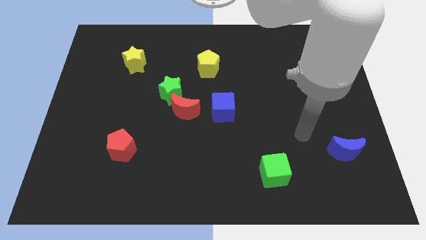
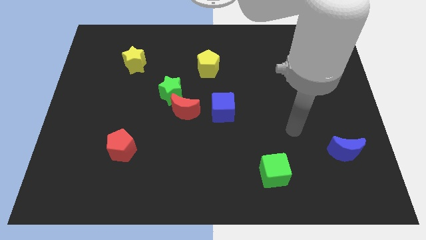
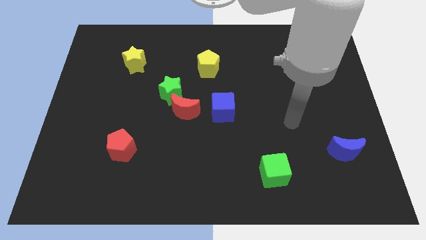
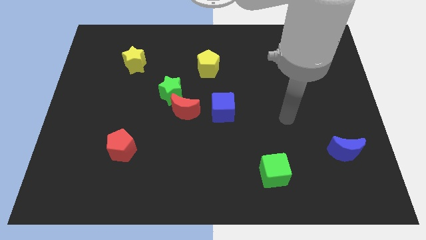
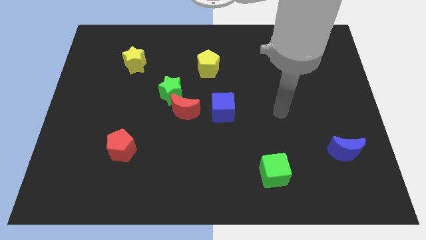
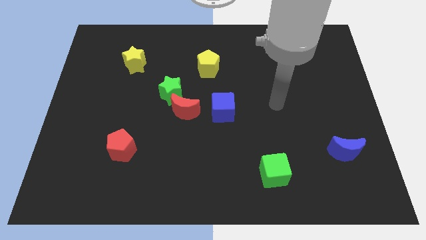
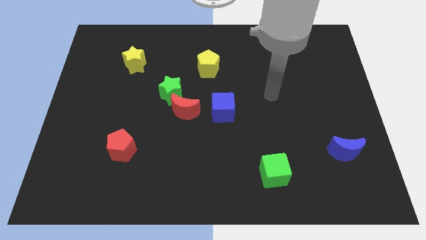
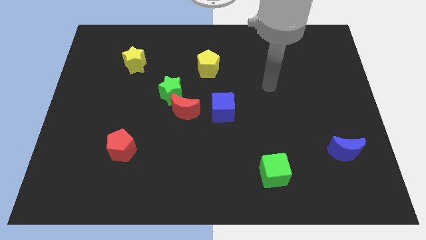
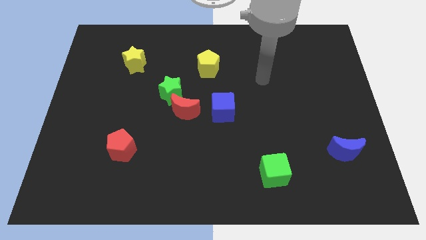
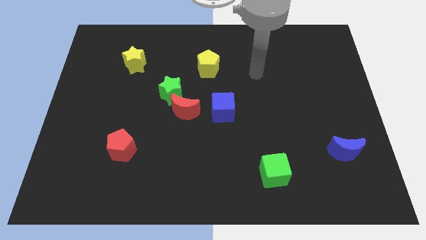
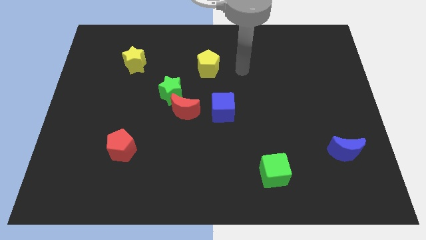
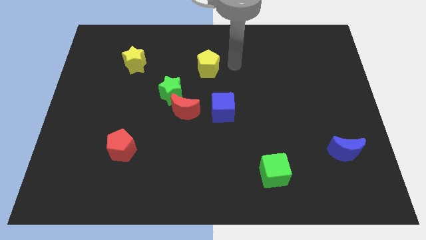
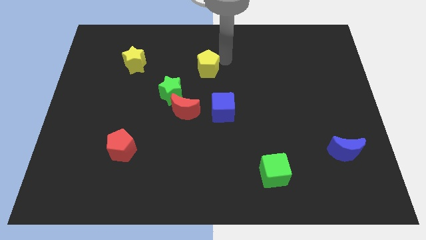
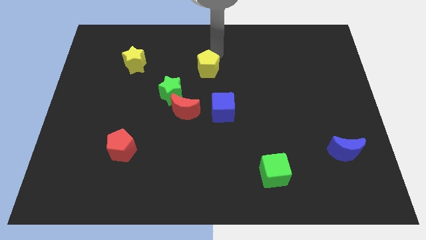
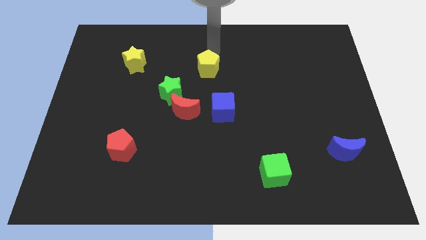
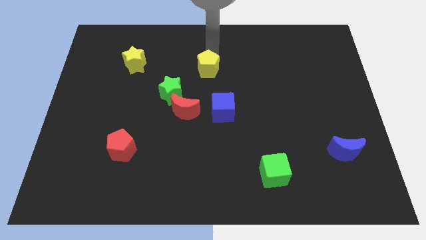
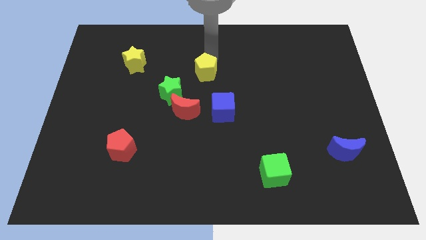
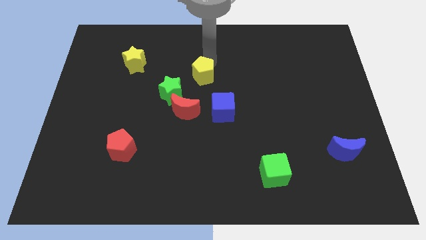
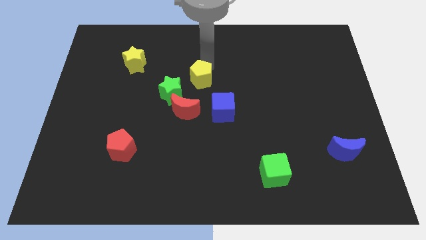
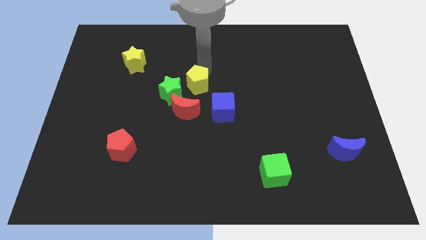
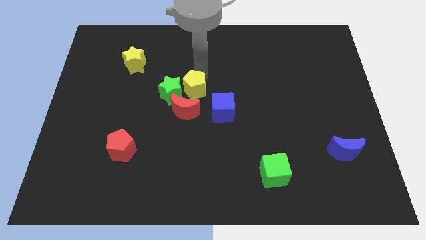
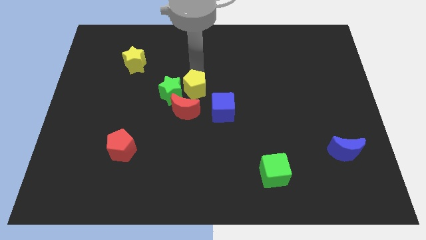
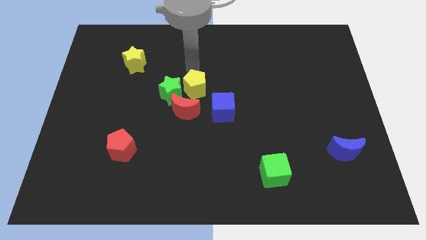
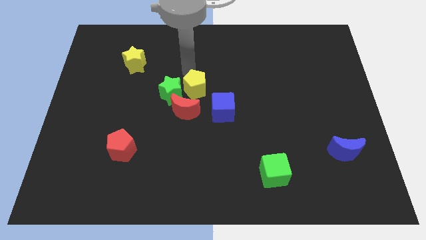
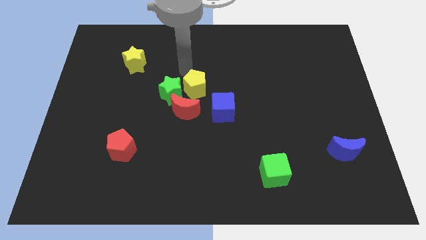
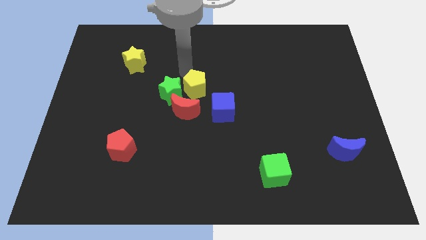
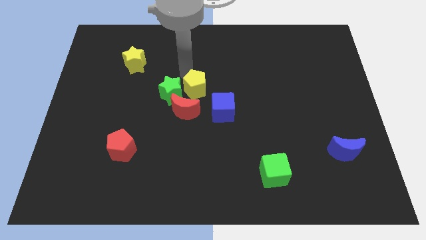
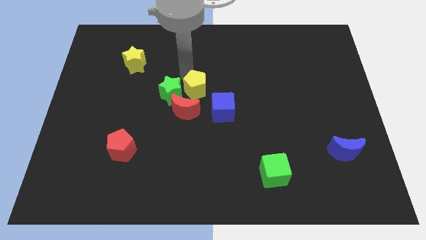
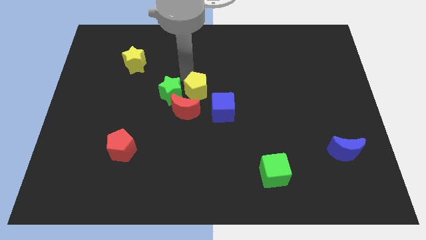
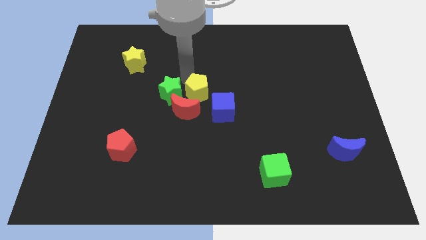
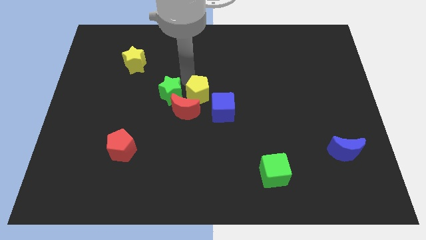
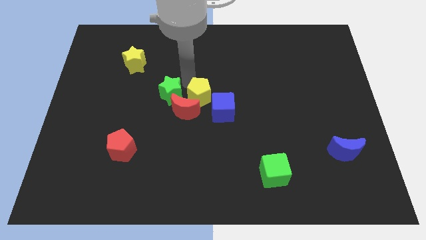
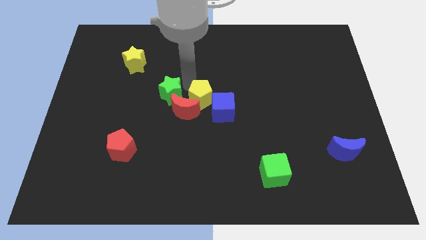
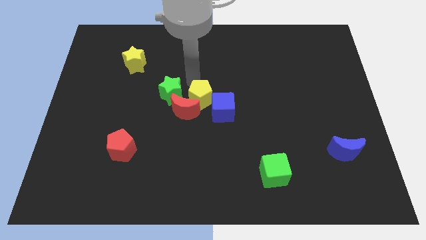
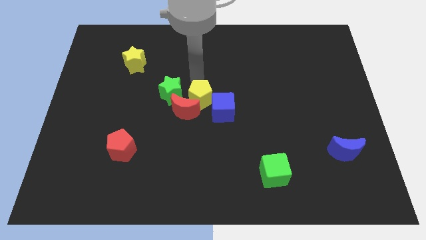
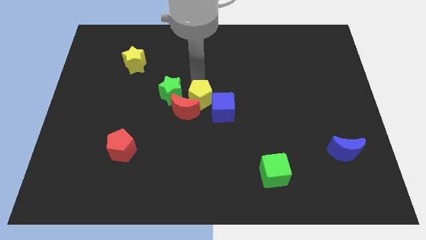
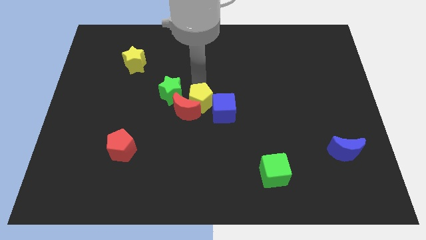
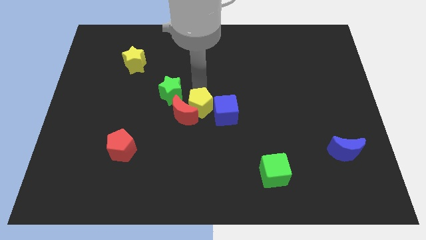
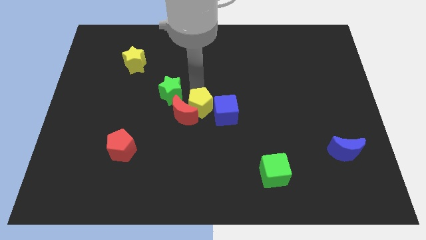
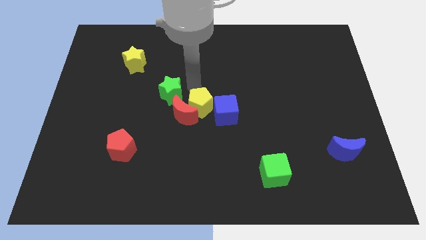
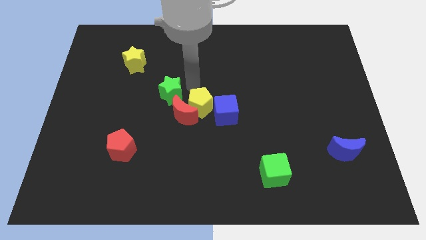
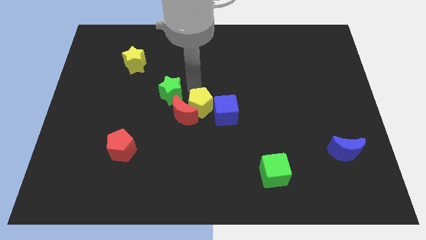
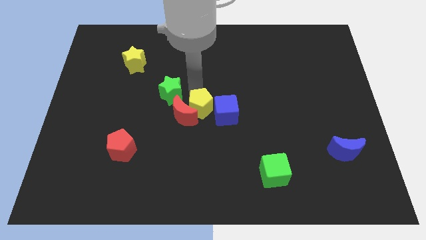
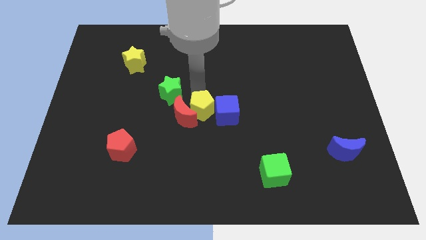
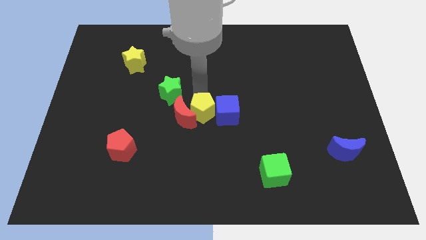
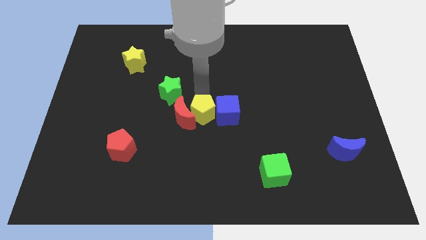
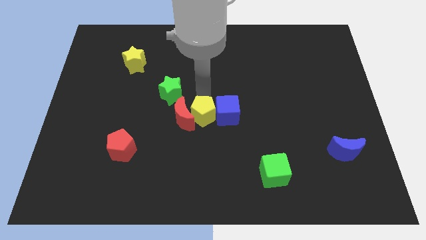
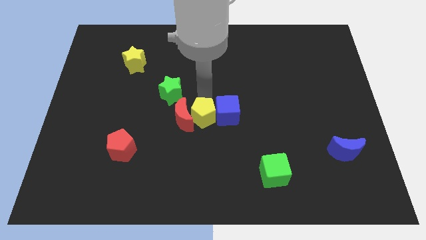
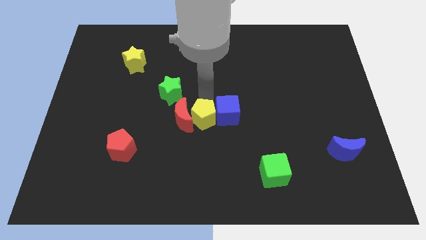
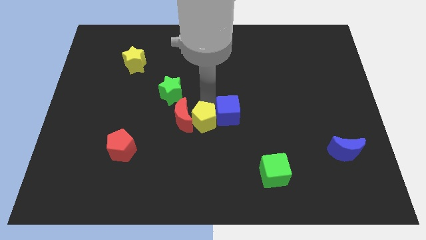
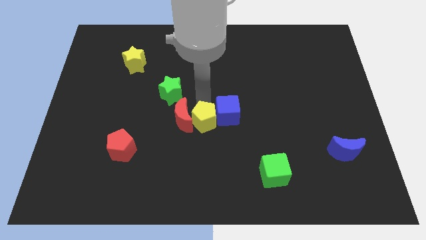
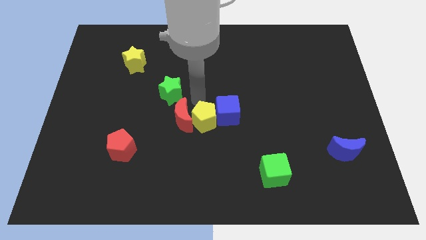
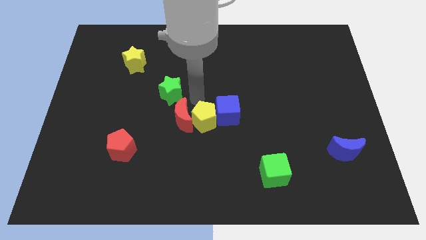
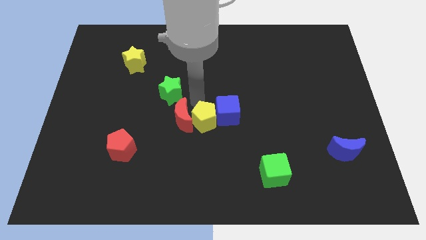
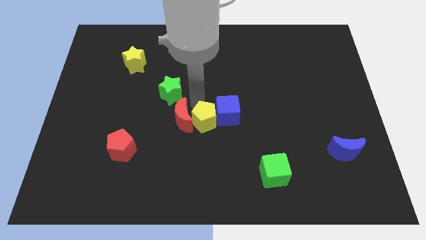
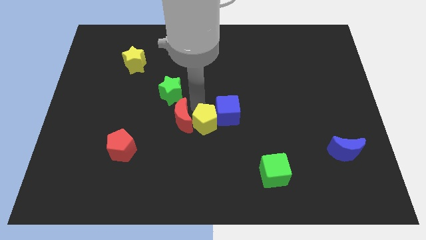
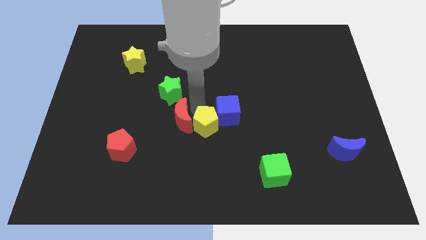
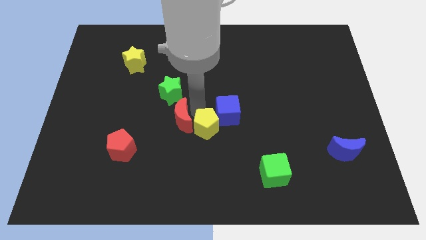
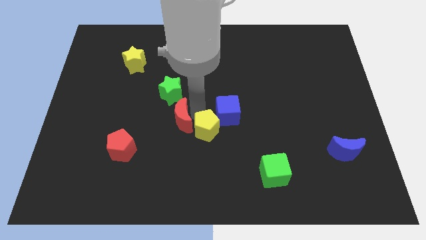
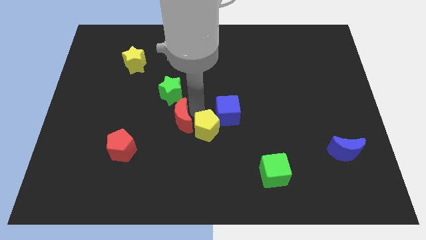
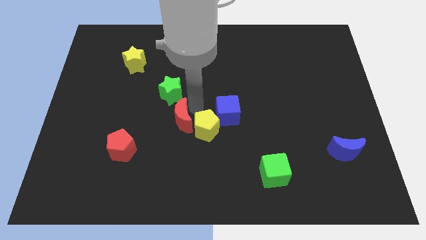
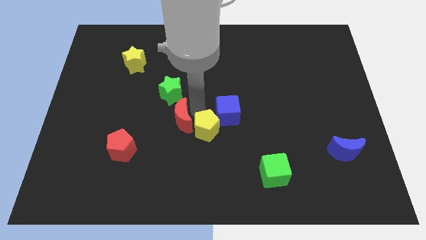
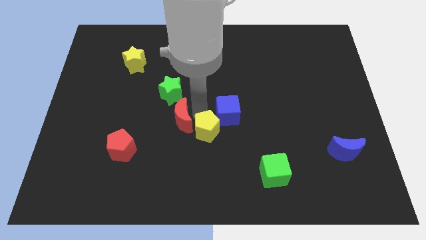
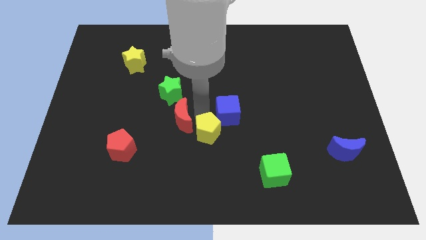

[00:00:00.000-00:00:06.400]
slide the yellow pentagon down

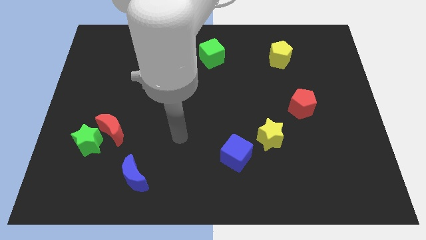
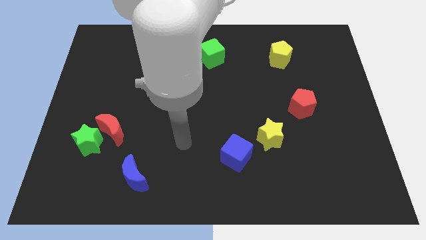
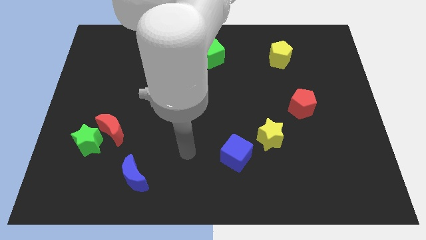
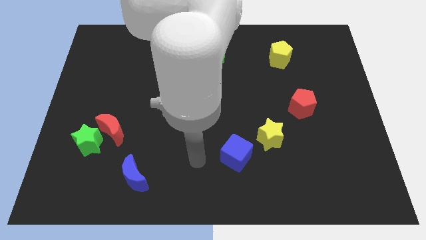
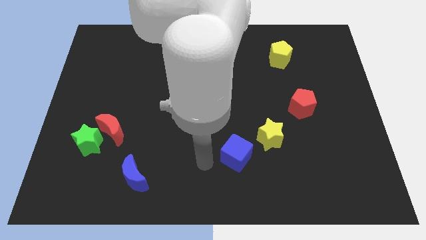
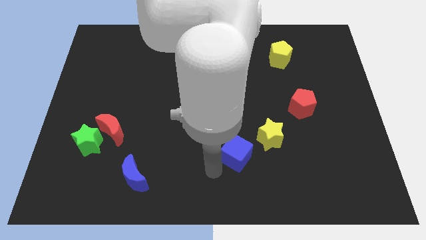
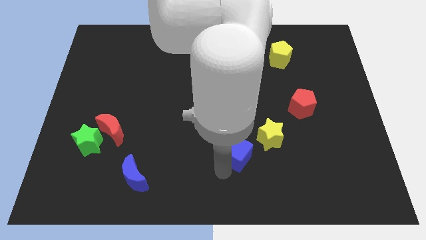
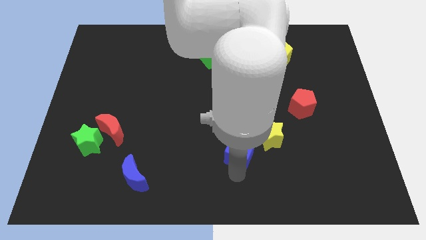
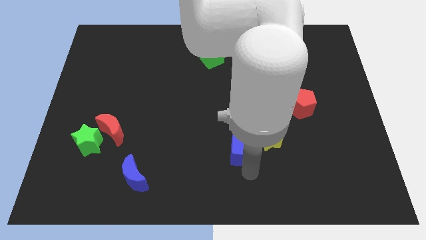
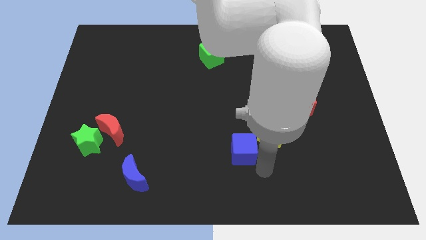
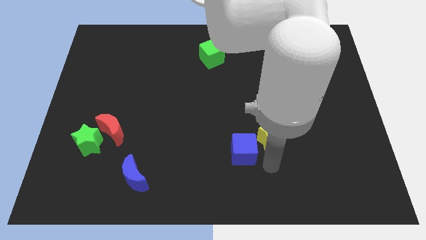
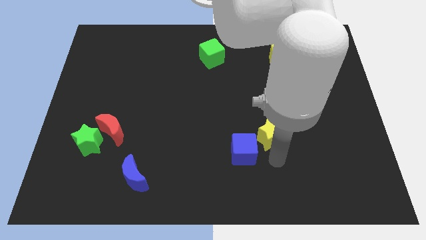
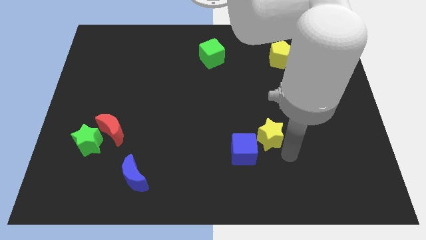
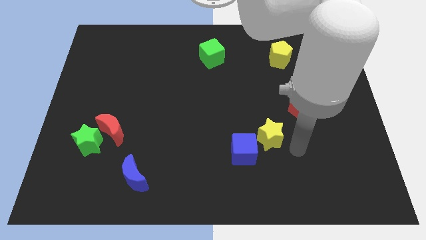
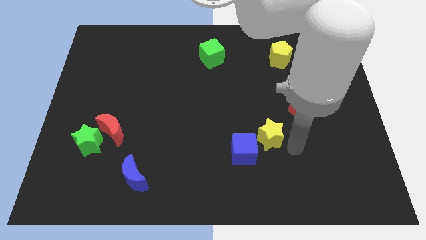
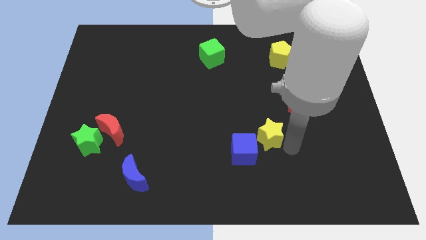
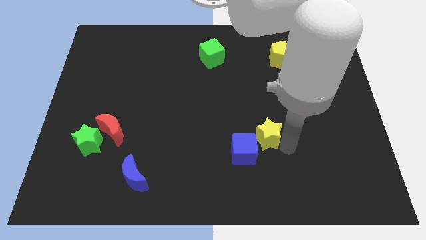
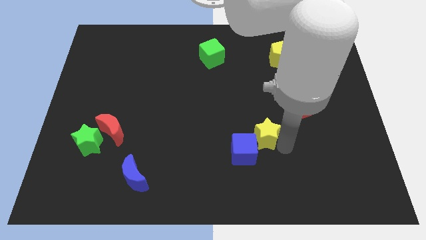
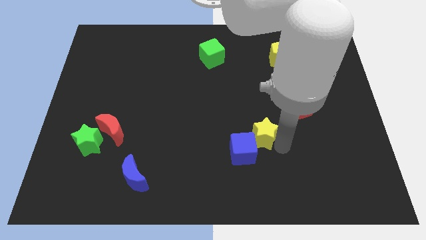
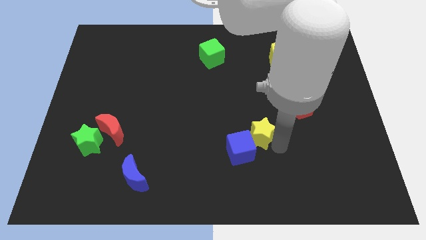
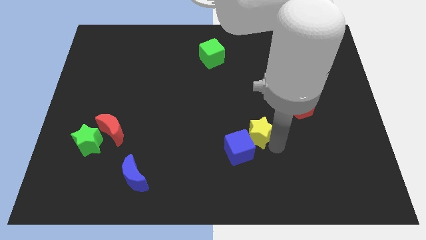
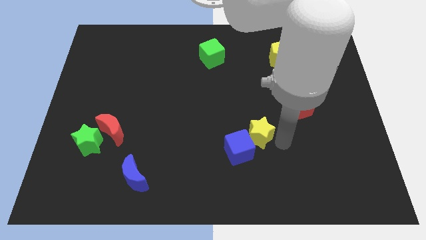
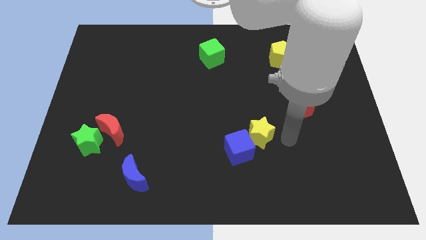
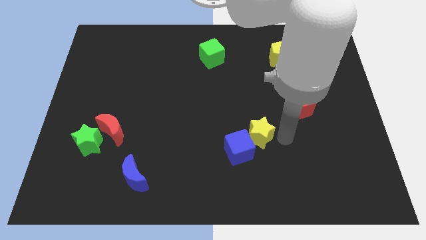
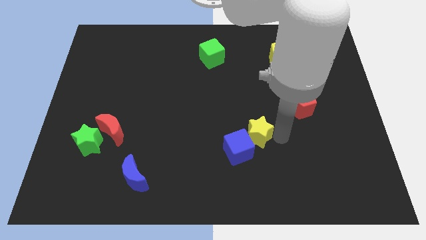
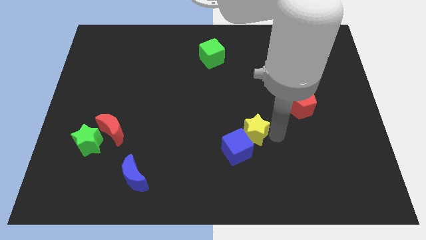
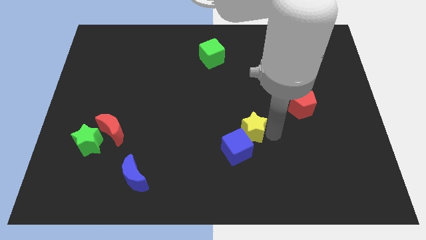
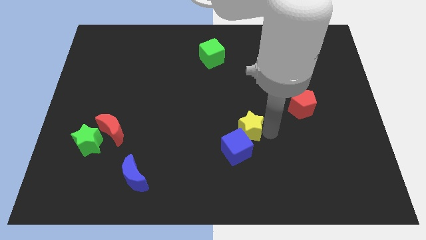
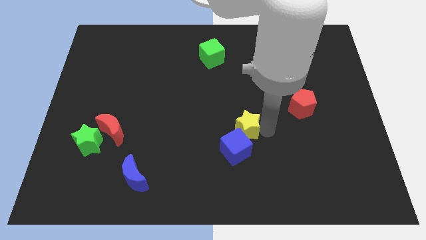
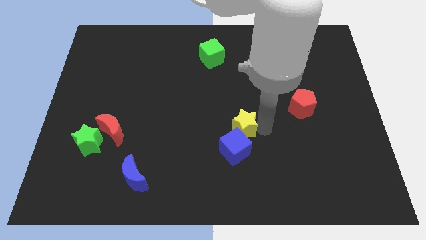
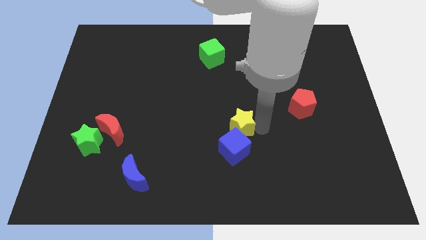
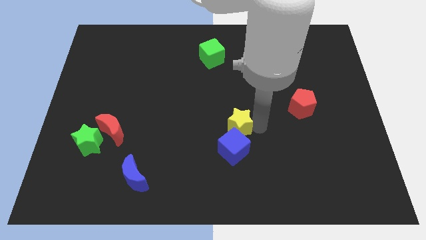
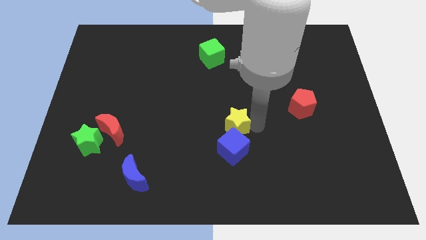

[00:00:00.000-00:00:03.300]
move the yellow star to the left a little
